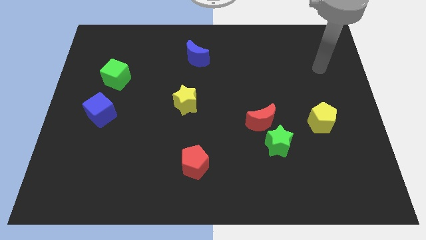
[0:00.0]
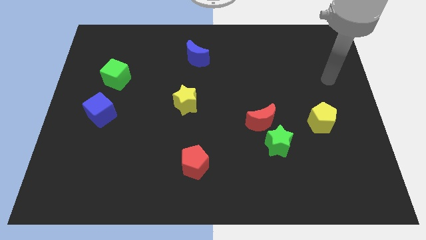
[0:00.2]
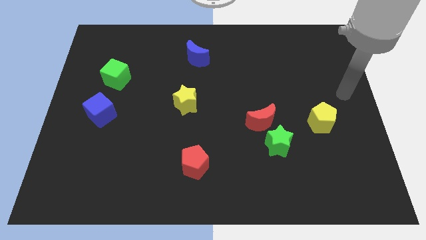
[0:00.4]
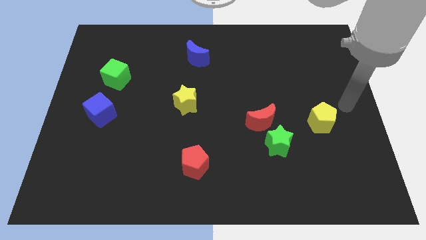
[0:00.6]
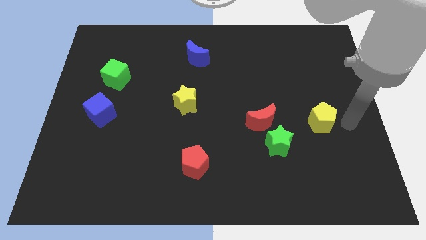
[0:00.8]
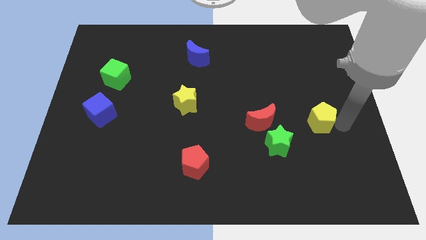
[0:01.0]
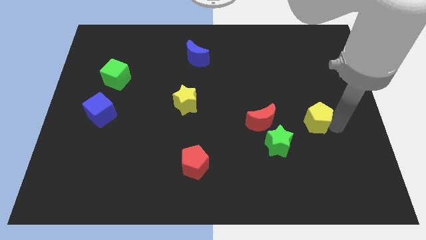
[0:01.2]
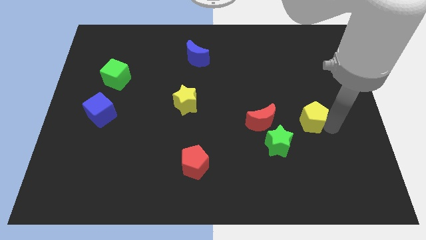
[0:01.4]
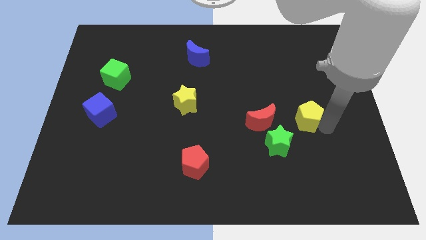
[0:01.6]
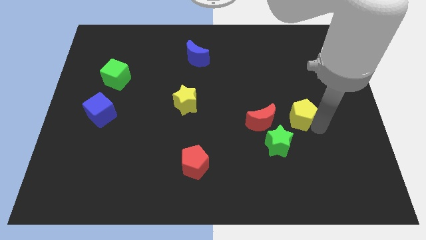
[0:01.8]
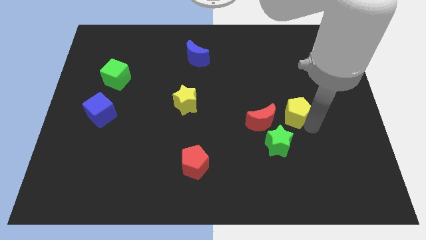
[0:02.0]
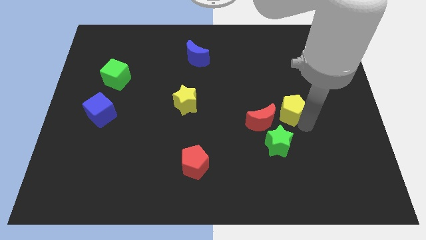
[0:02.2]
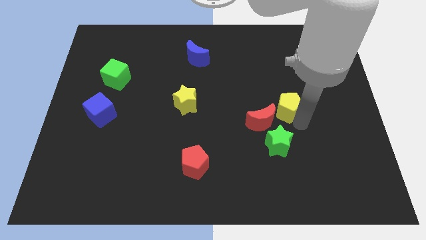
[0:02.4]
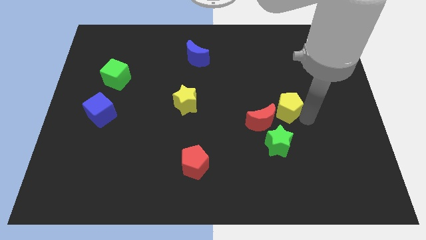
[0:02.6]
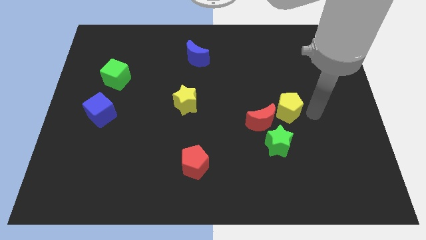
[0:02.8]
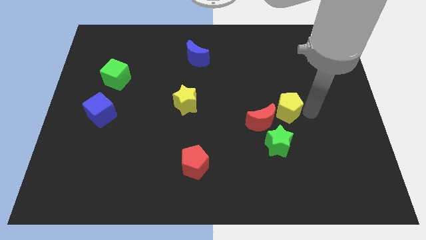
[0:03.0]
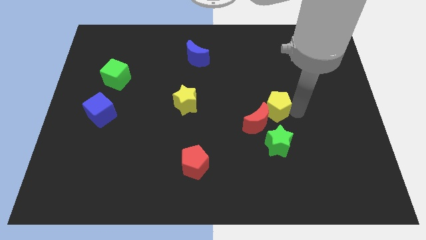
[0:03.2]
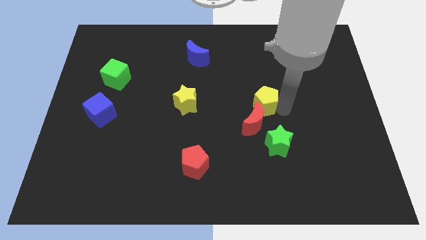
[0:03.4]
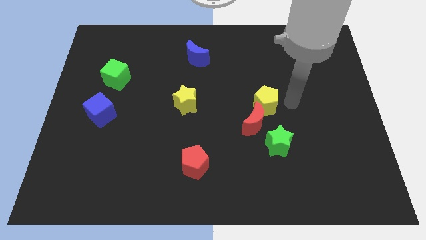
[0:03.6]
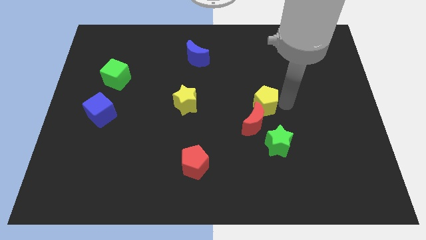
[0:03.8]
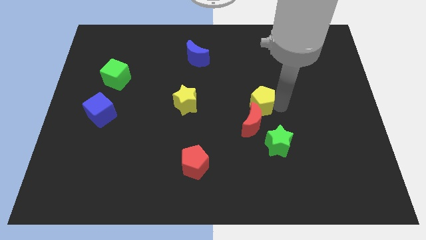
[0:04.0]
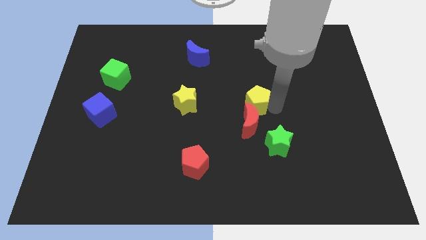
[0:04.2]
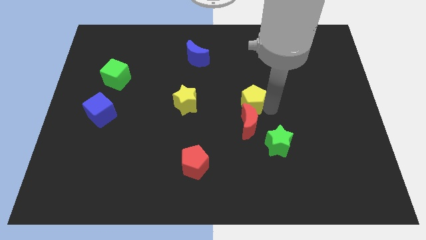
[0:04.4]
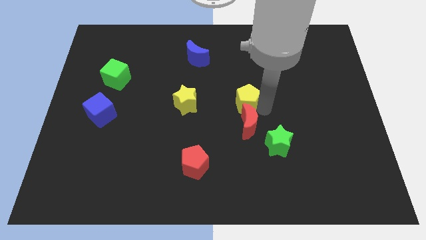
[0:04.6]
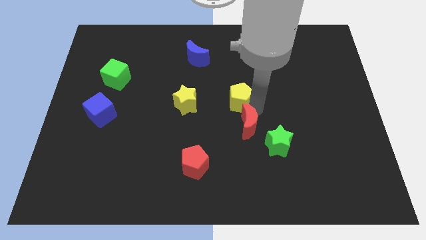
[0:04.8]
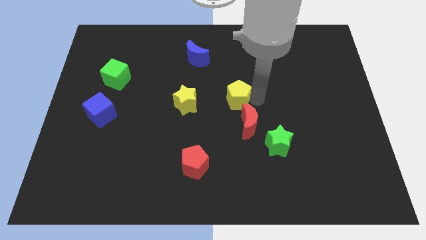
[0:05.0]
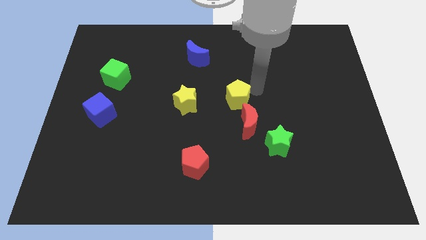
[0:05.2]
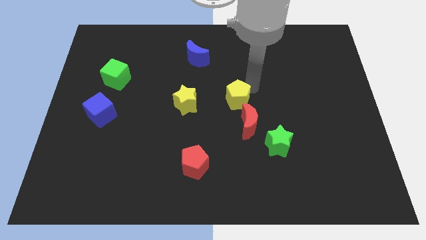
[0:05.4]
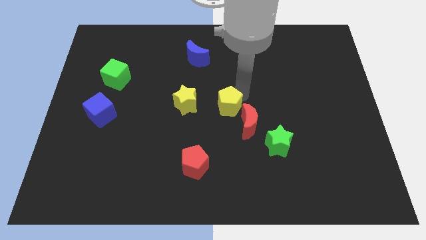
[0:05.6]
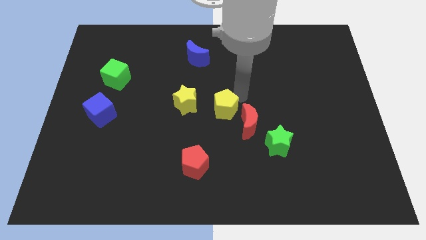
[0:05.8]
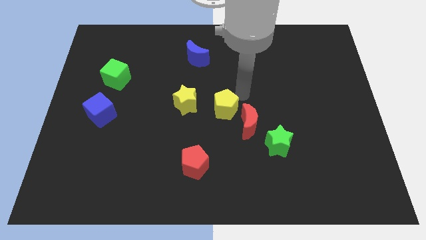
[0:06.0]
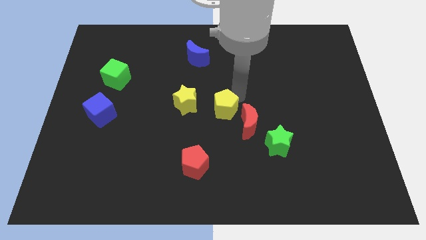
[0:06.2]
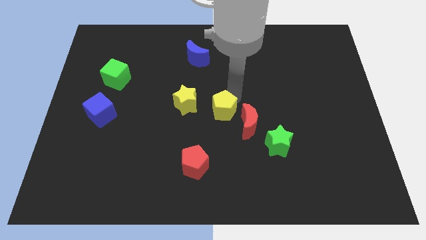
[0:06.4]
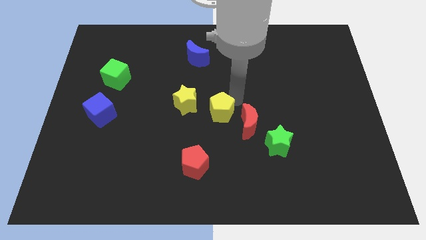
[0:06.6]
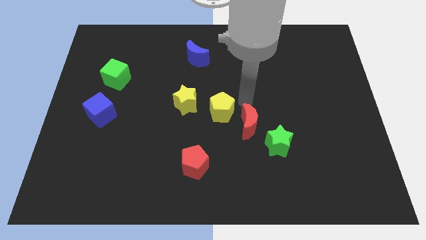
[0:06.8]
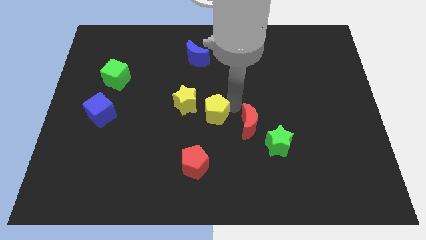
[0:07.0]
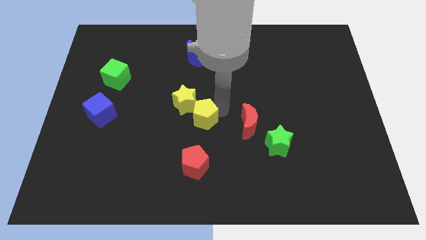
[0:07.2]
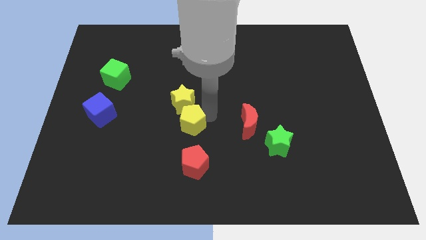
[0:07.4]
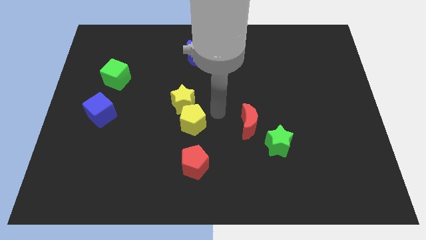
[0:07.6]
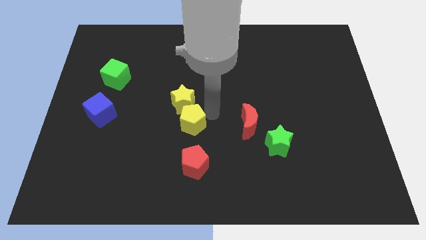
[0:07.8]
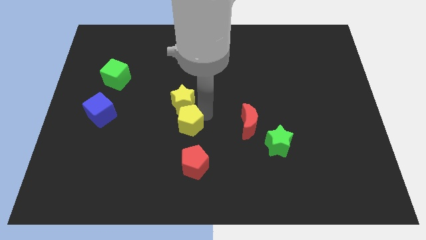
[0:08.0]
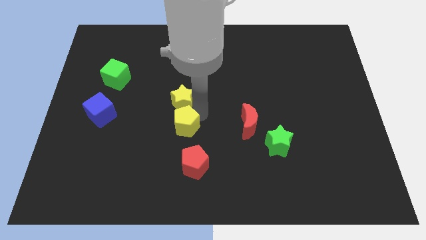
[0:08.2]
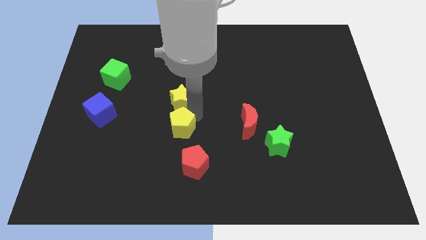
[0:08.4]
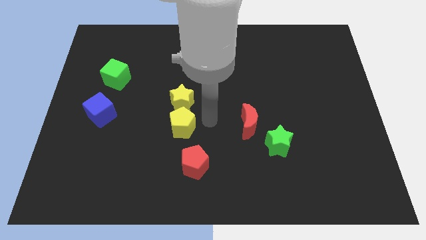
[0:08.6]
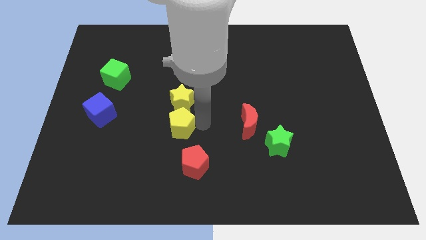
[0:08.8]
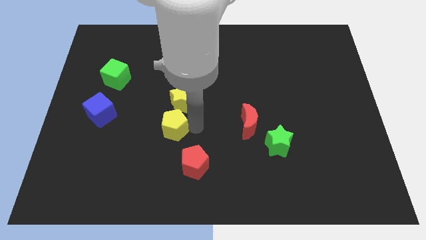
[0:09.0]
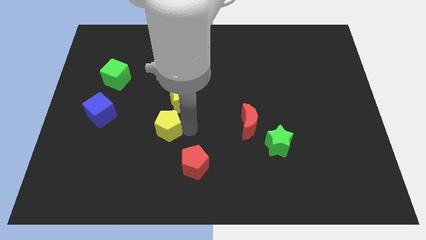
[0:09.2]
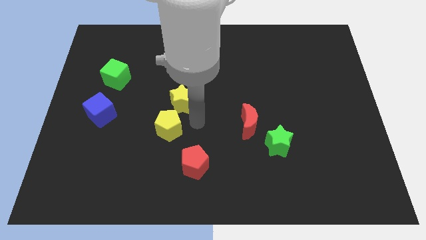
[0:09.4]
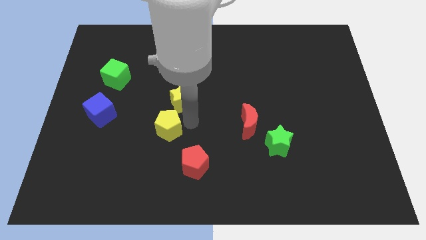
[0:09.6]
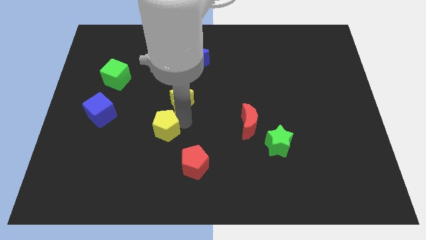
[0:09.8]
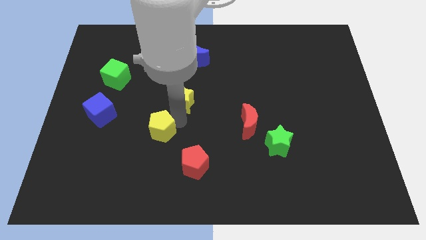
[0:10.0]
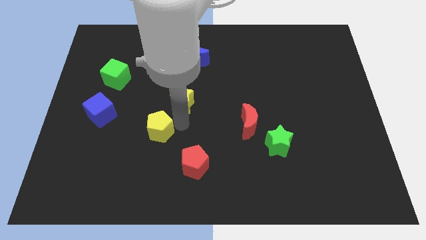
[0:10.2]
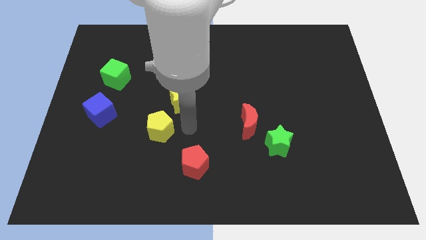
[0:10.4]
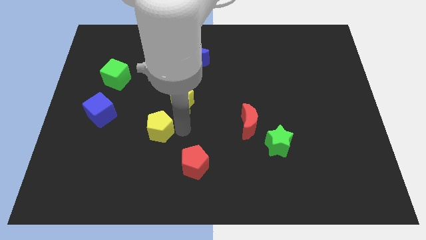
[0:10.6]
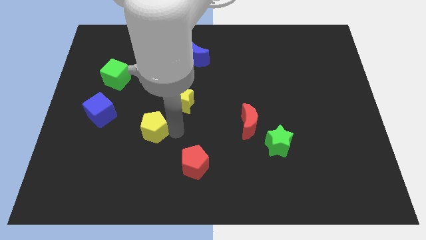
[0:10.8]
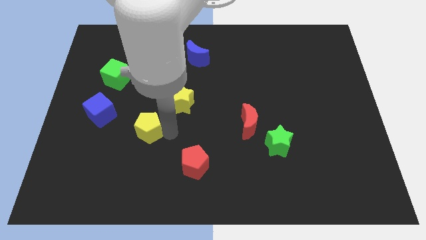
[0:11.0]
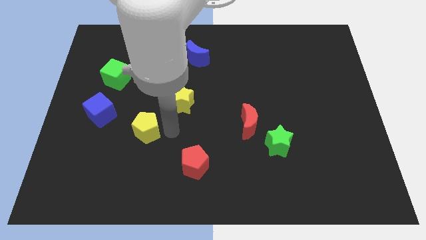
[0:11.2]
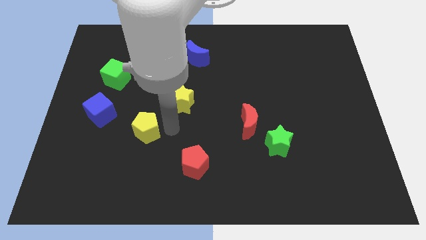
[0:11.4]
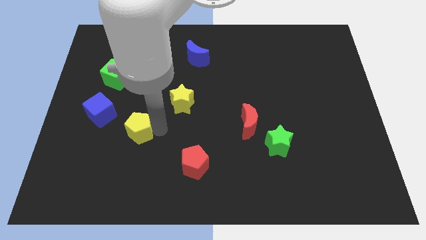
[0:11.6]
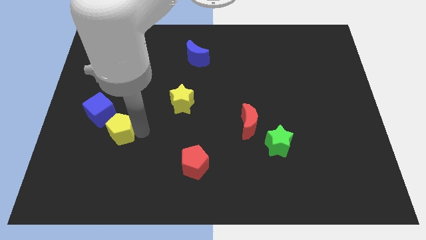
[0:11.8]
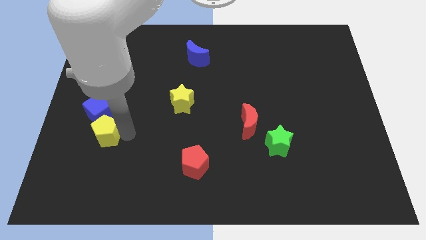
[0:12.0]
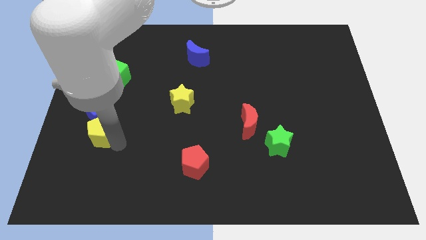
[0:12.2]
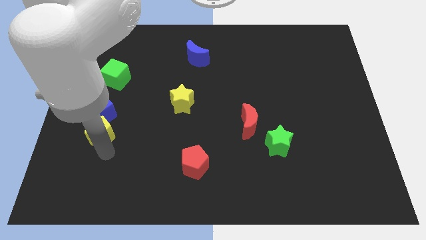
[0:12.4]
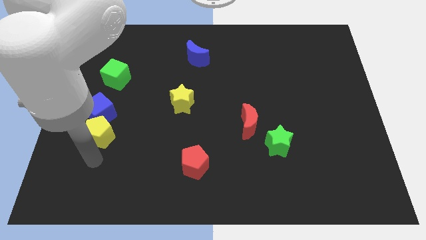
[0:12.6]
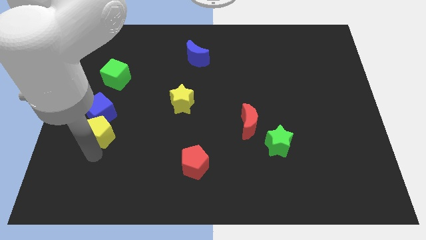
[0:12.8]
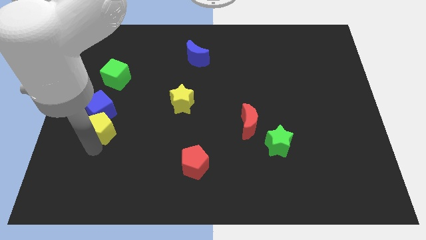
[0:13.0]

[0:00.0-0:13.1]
put the yellow pentagon to the bottom of the green cube

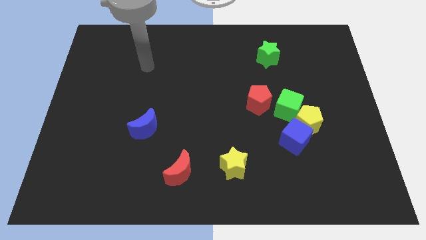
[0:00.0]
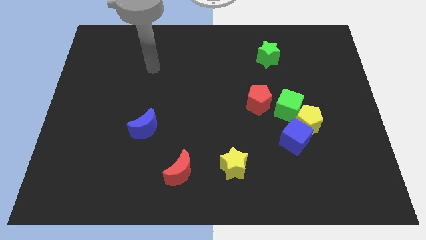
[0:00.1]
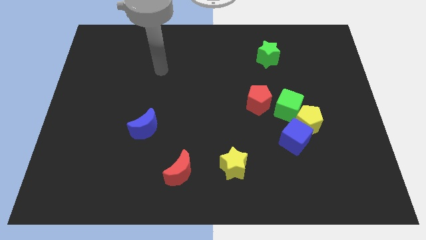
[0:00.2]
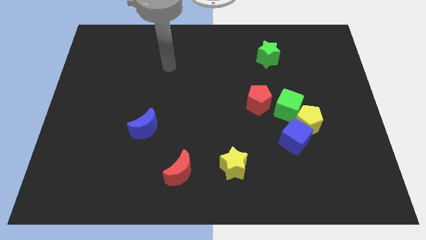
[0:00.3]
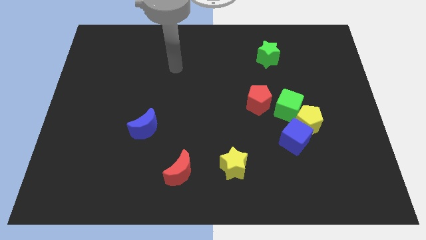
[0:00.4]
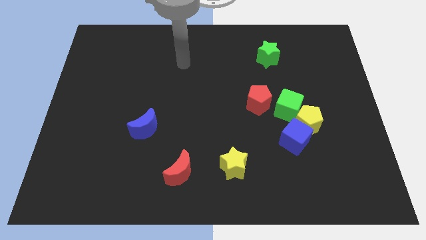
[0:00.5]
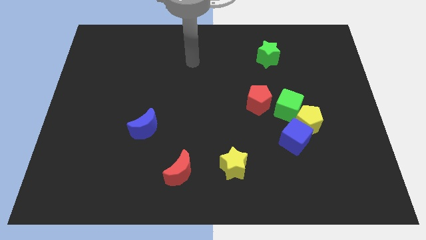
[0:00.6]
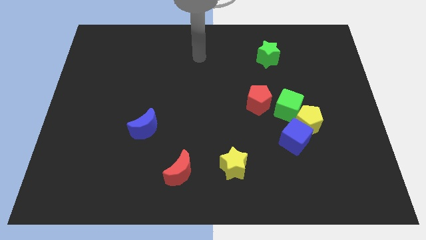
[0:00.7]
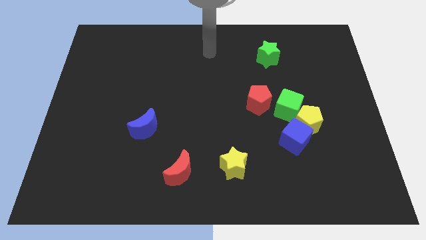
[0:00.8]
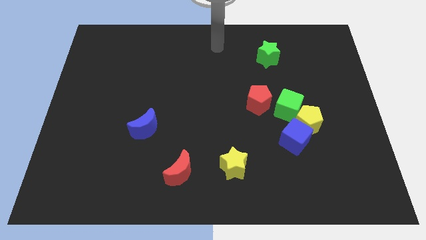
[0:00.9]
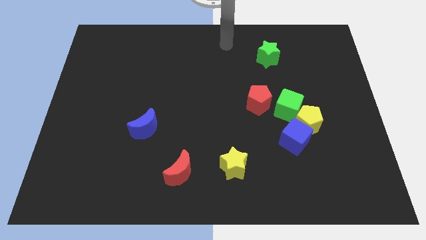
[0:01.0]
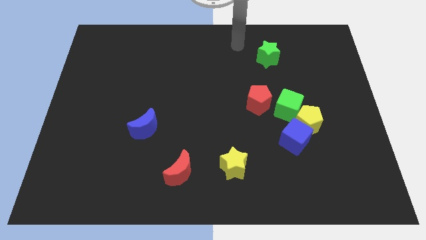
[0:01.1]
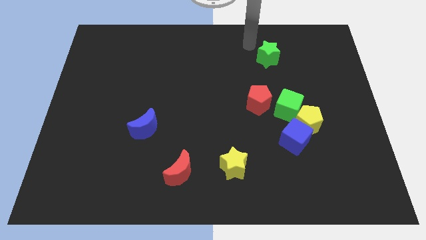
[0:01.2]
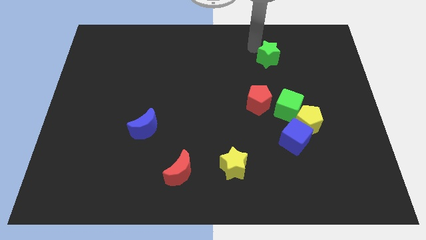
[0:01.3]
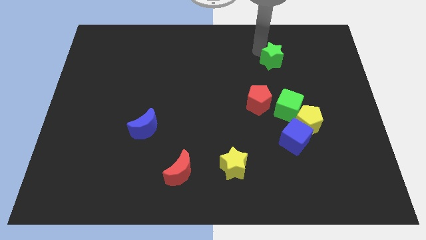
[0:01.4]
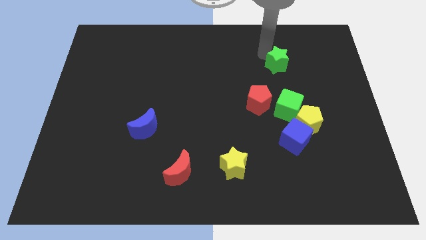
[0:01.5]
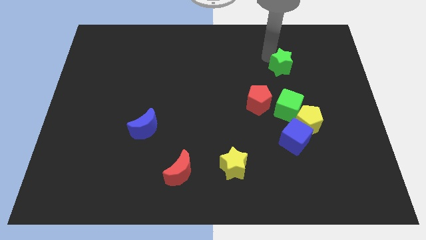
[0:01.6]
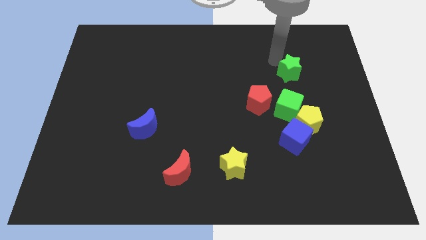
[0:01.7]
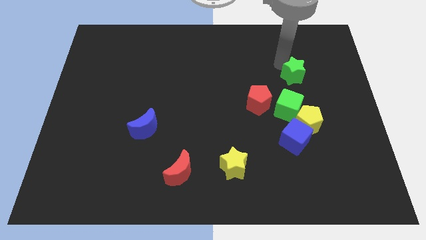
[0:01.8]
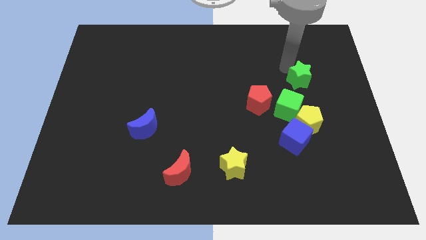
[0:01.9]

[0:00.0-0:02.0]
slide the green star to the top right side of the green cube
